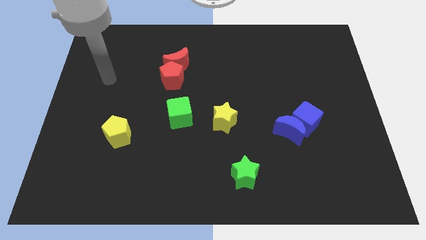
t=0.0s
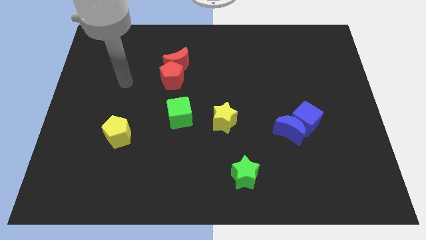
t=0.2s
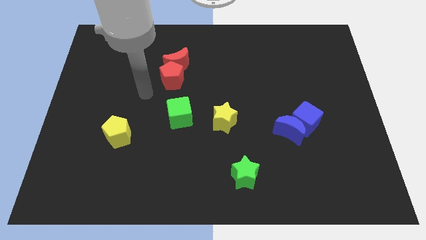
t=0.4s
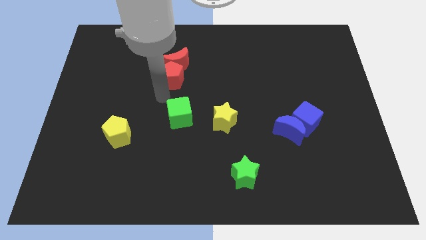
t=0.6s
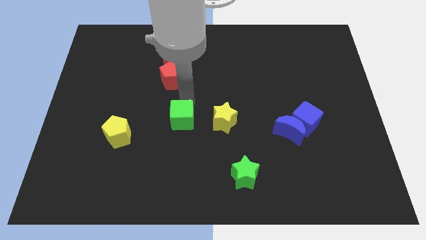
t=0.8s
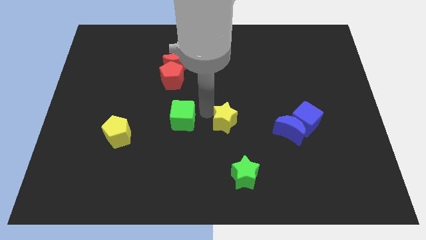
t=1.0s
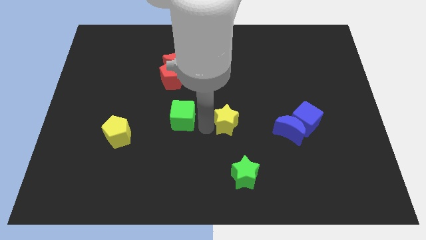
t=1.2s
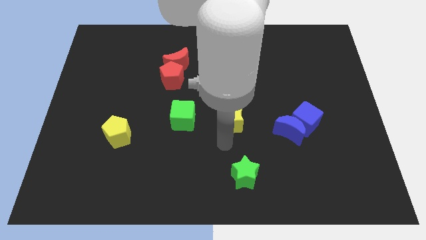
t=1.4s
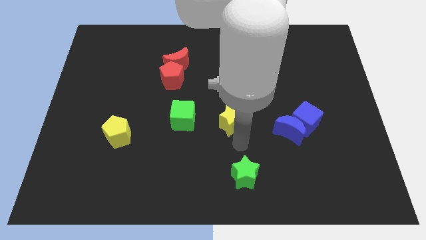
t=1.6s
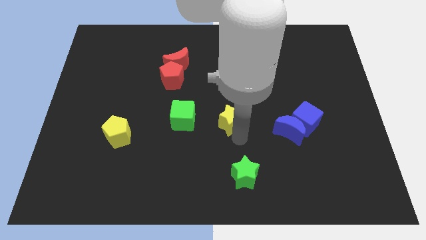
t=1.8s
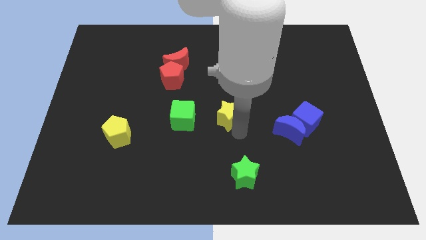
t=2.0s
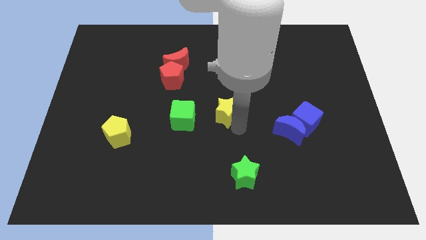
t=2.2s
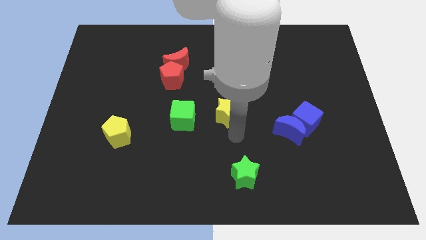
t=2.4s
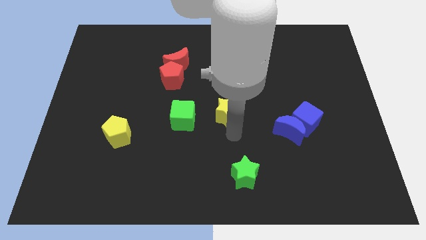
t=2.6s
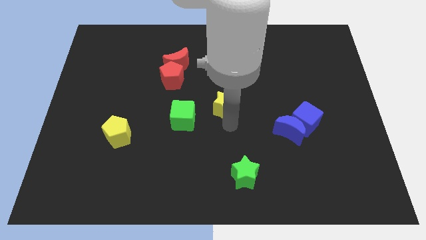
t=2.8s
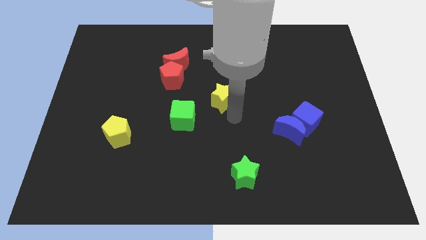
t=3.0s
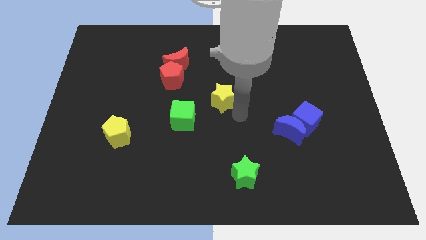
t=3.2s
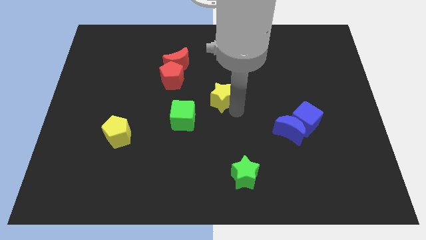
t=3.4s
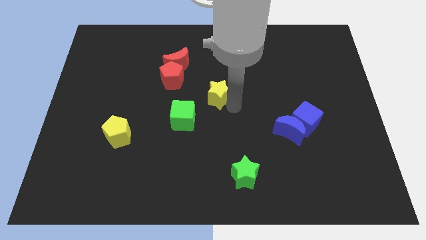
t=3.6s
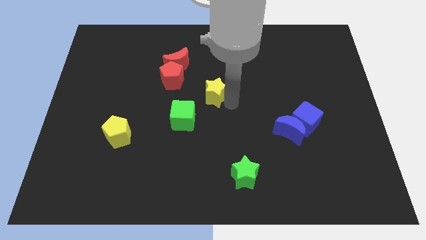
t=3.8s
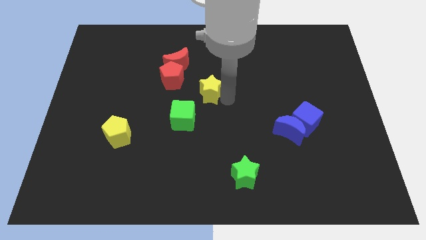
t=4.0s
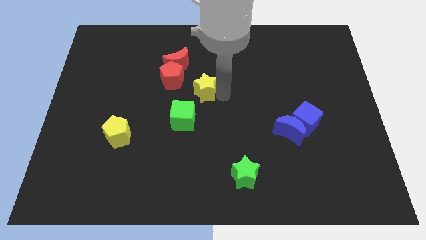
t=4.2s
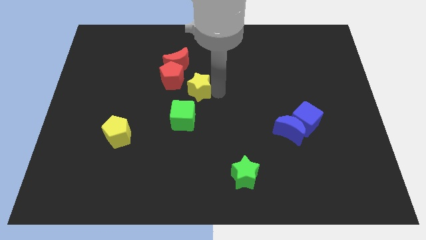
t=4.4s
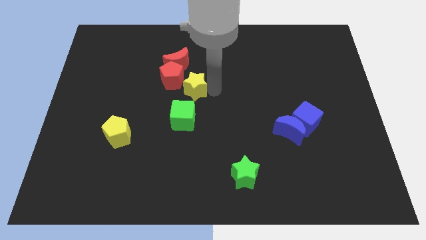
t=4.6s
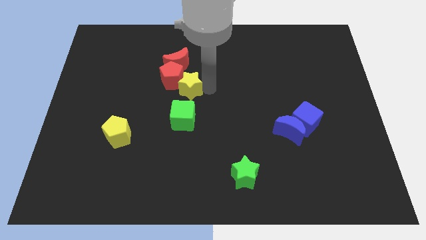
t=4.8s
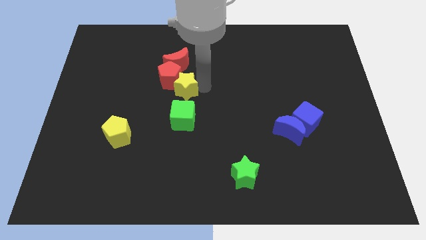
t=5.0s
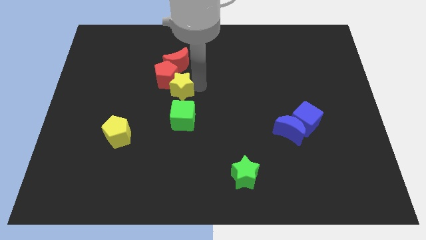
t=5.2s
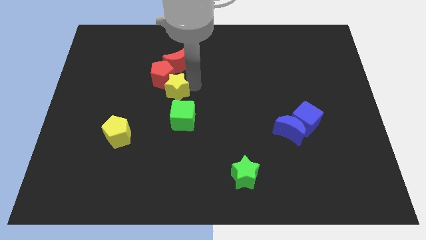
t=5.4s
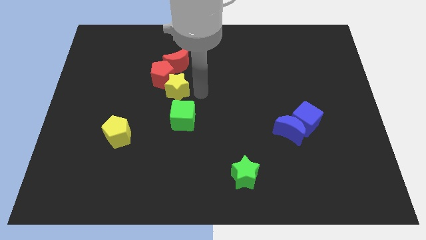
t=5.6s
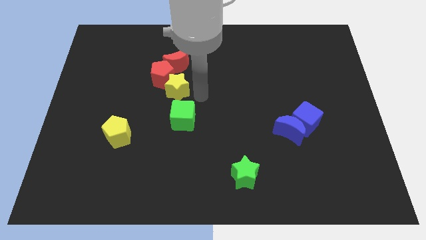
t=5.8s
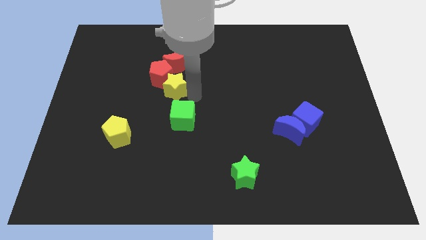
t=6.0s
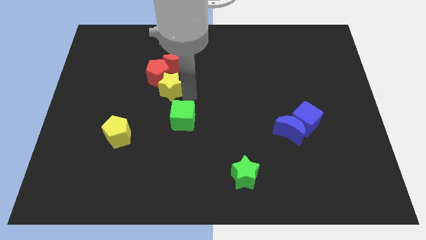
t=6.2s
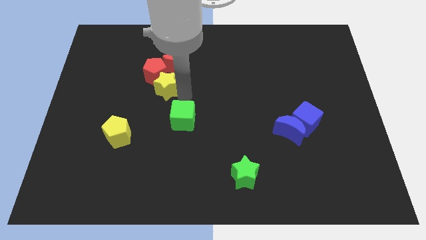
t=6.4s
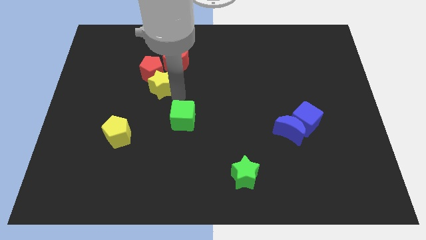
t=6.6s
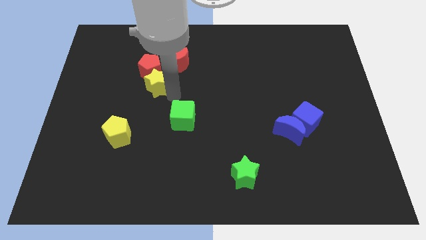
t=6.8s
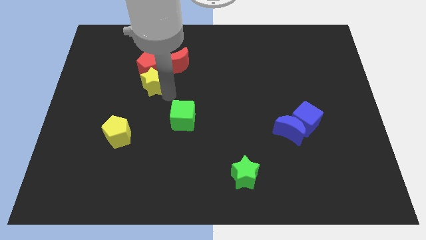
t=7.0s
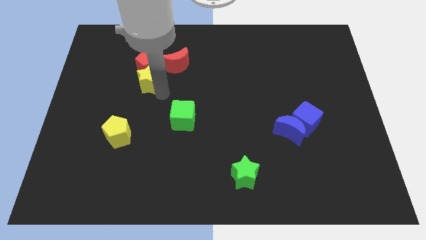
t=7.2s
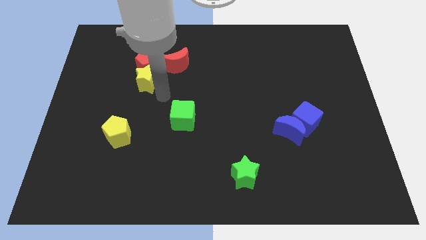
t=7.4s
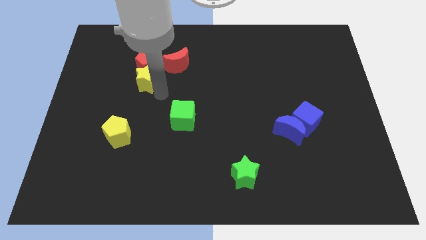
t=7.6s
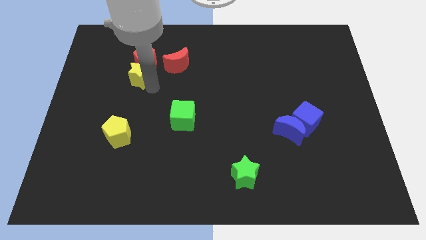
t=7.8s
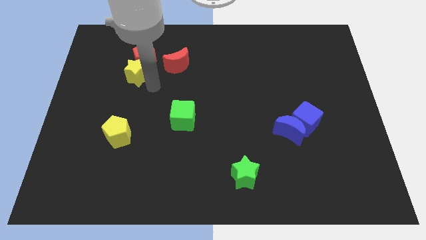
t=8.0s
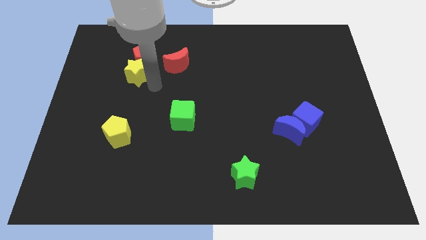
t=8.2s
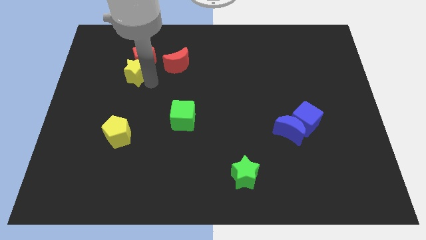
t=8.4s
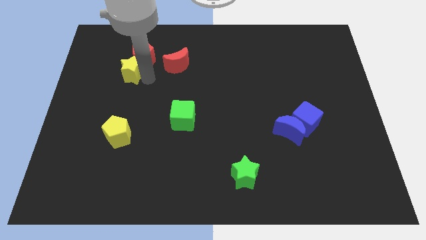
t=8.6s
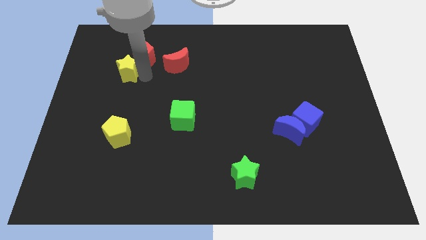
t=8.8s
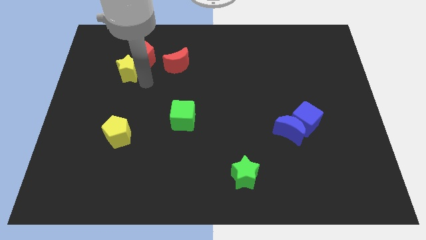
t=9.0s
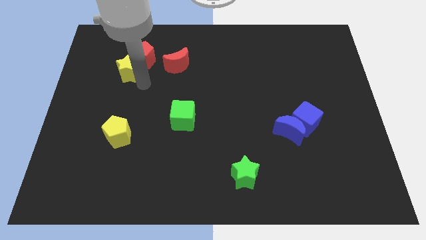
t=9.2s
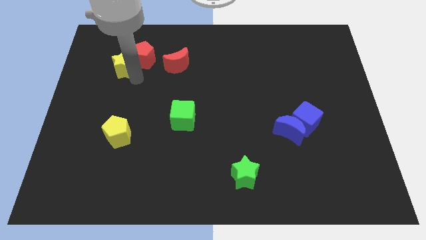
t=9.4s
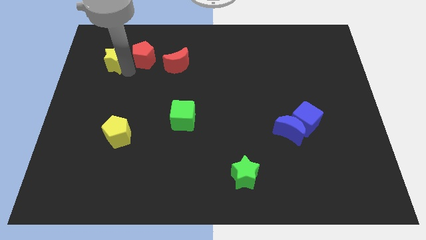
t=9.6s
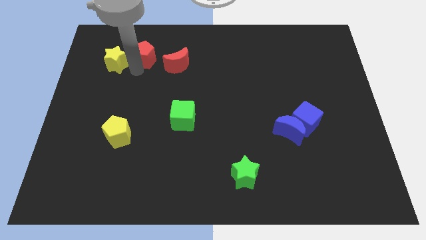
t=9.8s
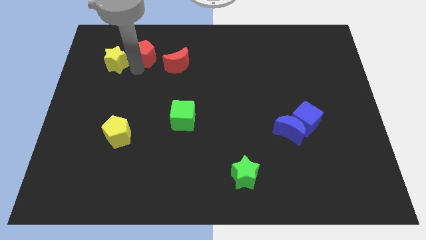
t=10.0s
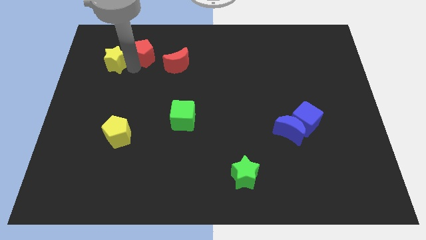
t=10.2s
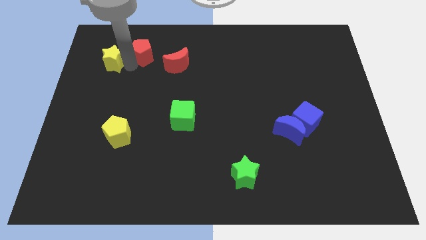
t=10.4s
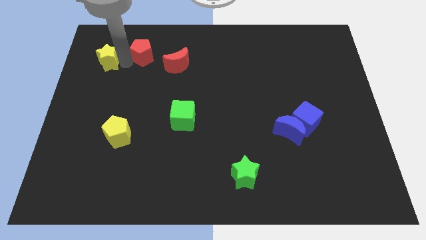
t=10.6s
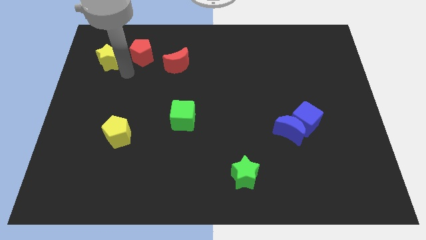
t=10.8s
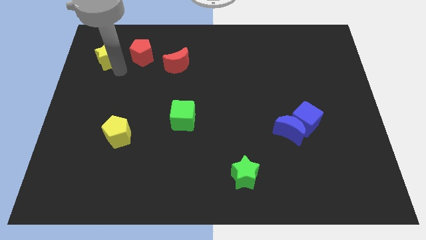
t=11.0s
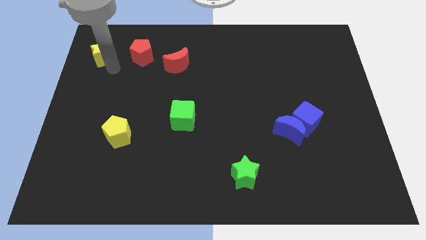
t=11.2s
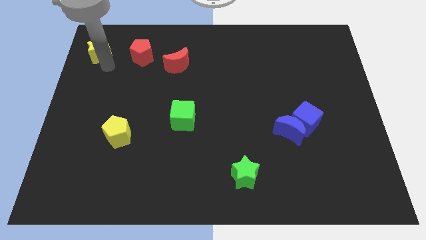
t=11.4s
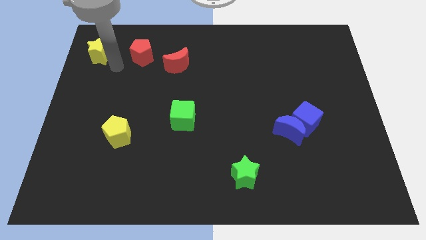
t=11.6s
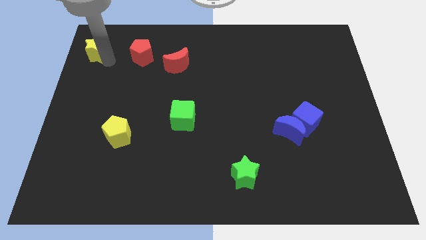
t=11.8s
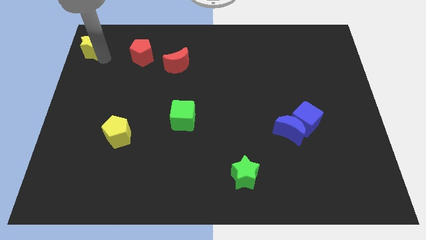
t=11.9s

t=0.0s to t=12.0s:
slide the yellow star to the top left corner

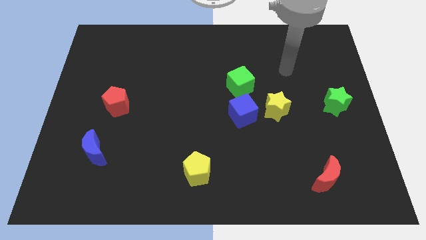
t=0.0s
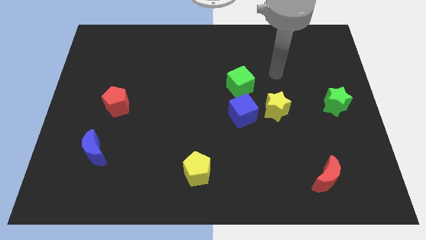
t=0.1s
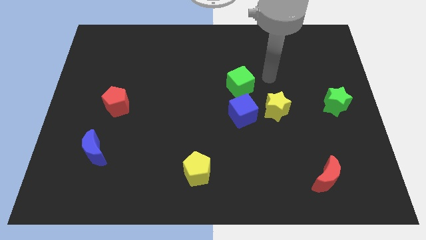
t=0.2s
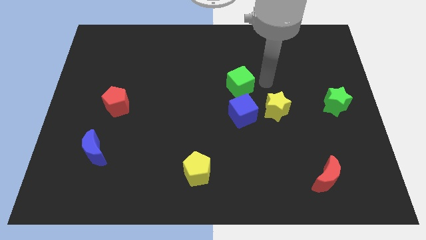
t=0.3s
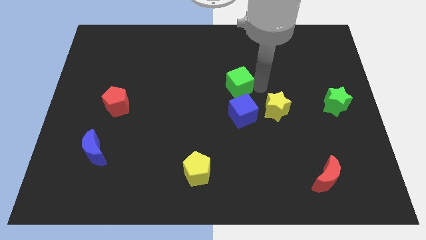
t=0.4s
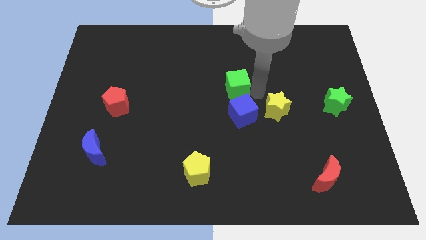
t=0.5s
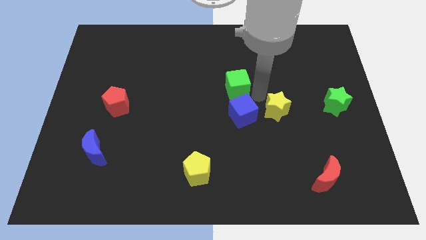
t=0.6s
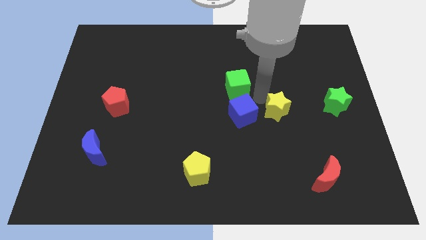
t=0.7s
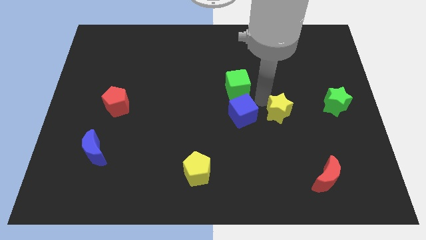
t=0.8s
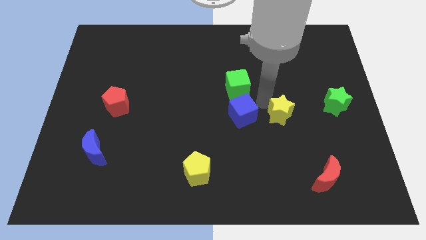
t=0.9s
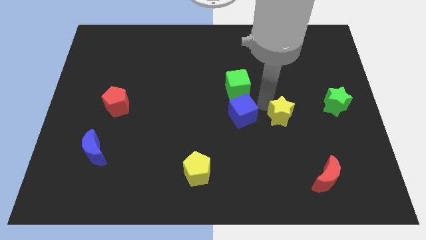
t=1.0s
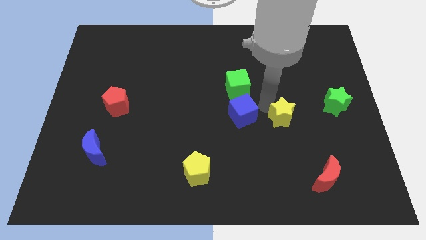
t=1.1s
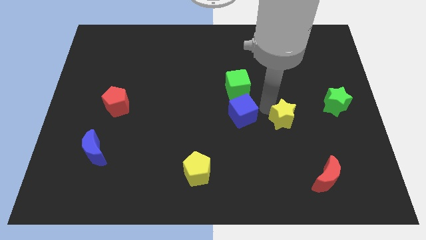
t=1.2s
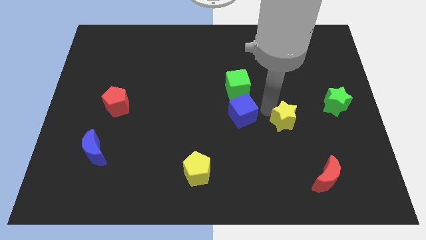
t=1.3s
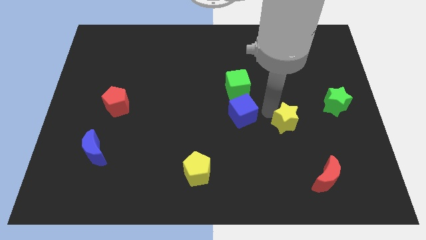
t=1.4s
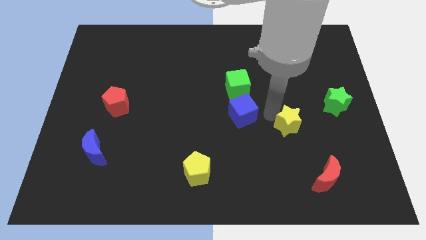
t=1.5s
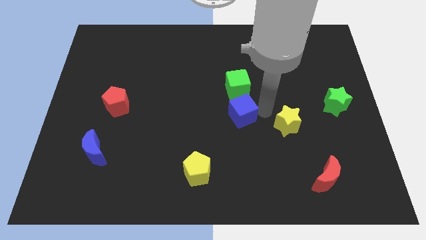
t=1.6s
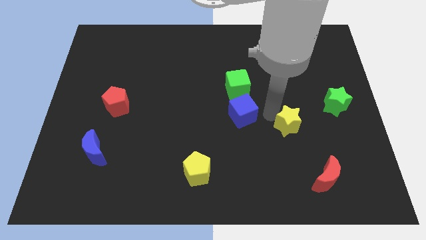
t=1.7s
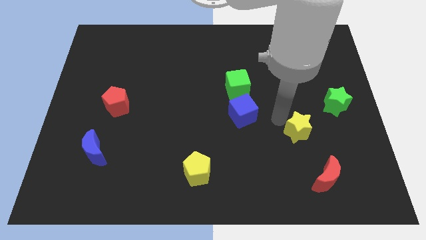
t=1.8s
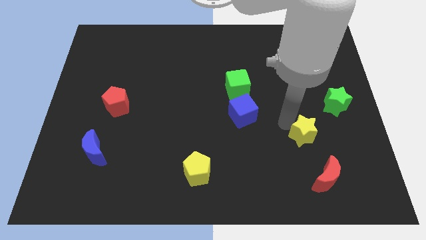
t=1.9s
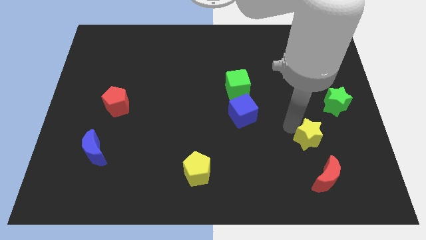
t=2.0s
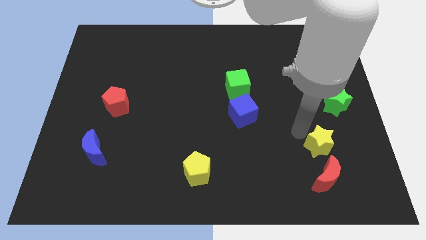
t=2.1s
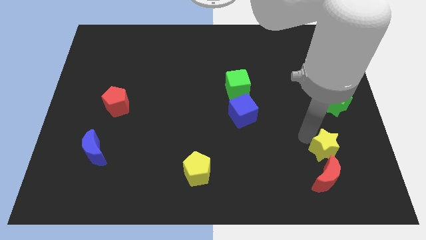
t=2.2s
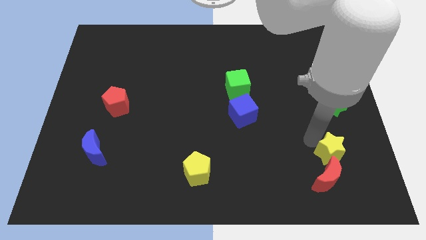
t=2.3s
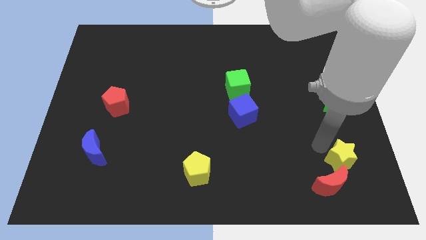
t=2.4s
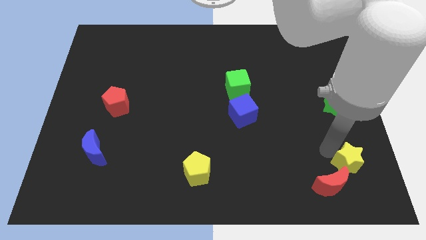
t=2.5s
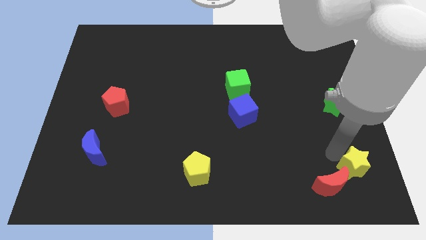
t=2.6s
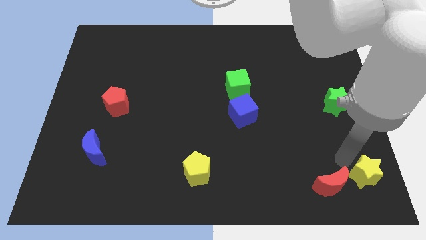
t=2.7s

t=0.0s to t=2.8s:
slide the yellow star to the bottom right corner
